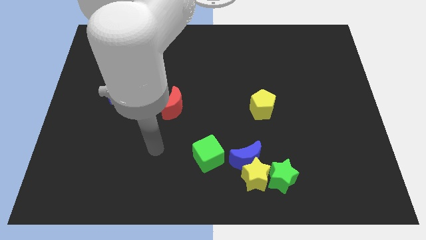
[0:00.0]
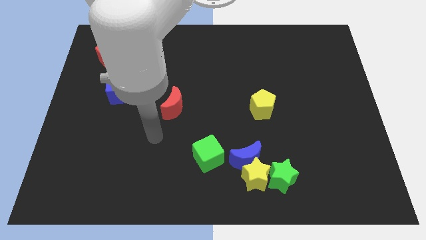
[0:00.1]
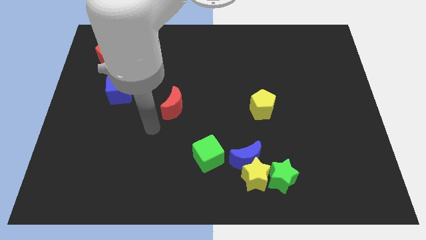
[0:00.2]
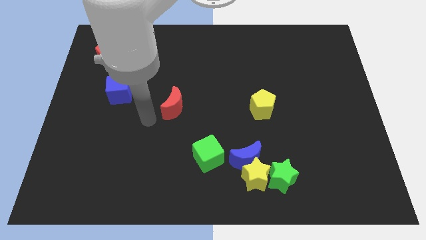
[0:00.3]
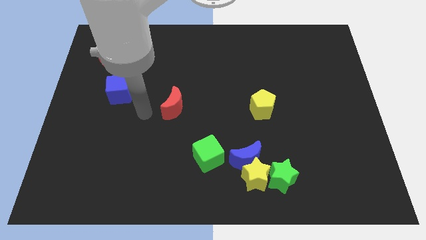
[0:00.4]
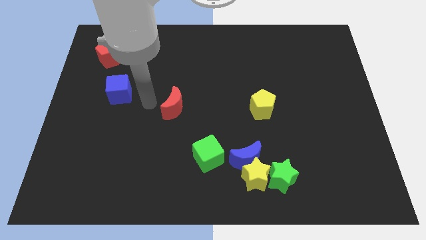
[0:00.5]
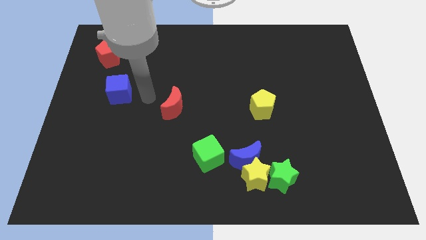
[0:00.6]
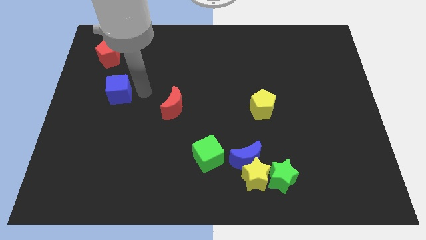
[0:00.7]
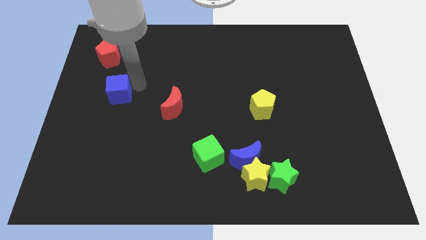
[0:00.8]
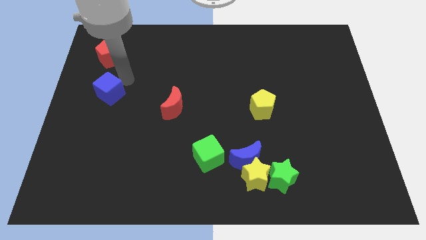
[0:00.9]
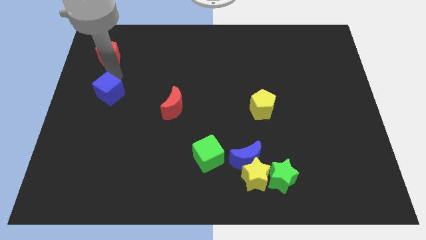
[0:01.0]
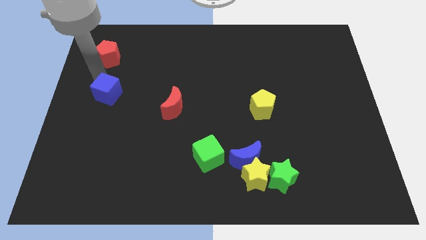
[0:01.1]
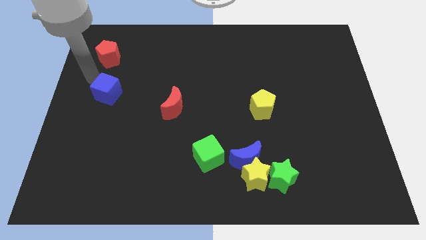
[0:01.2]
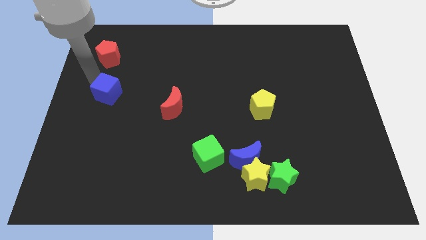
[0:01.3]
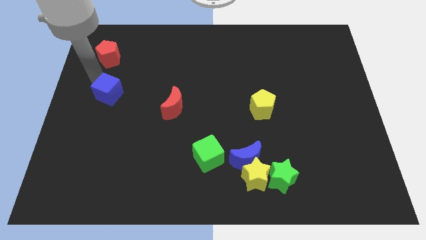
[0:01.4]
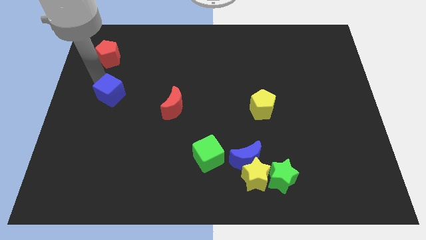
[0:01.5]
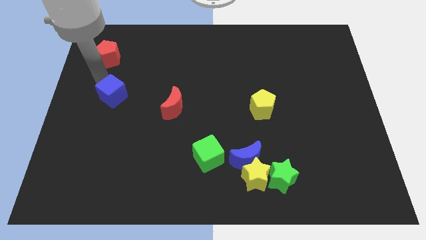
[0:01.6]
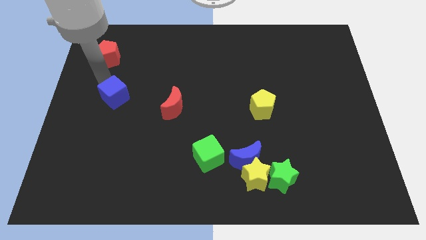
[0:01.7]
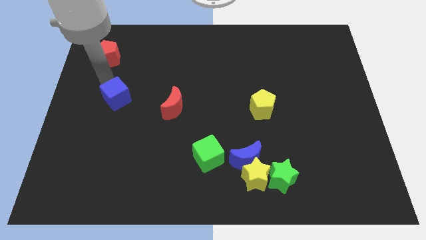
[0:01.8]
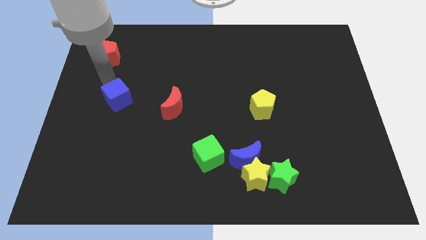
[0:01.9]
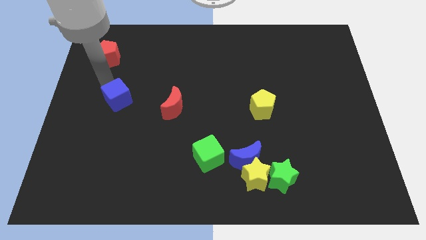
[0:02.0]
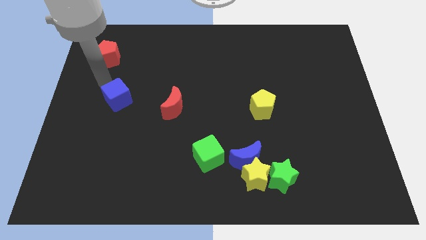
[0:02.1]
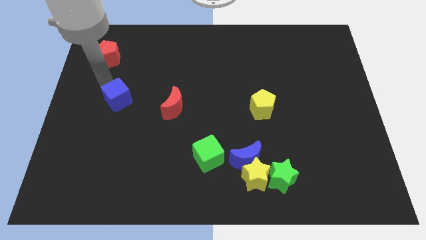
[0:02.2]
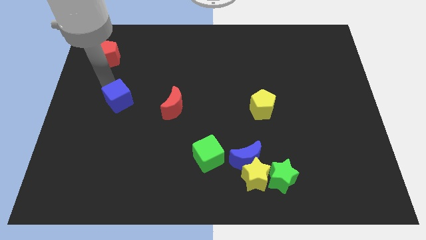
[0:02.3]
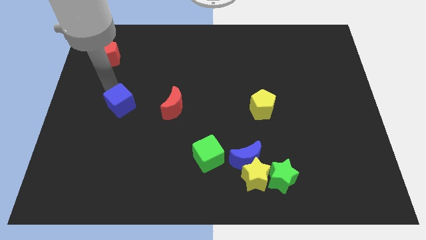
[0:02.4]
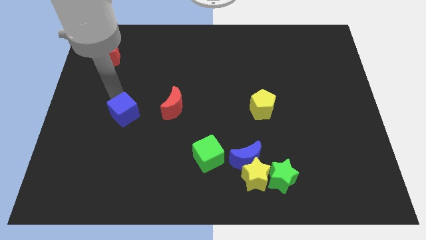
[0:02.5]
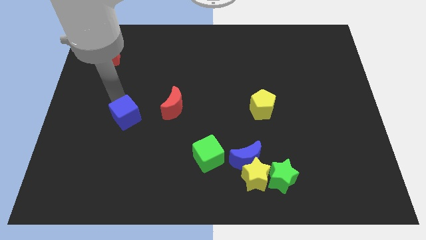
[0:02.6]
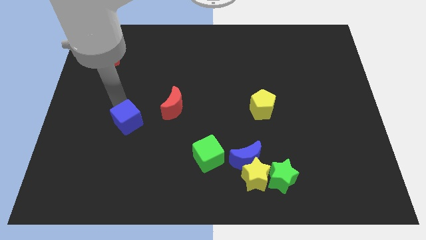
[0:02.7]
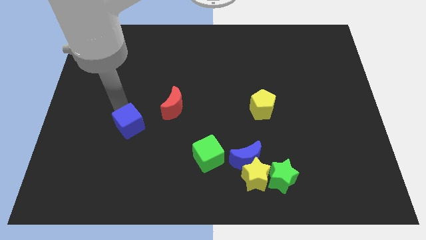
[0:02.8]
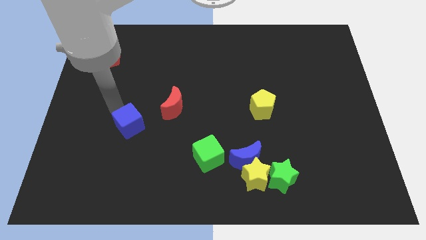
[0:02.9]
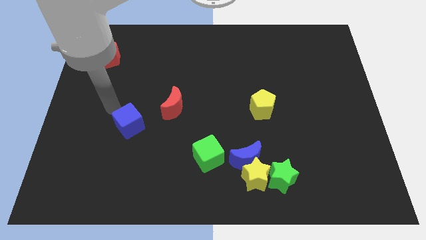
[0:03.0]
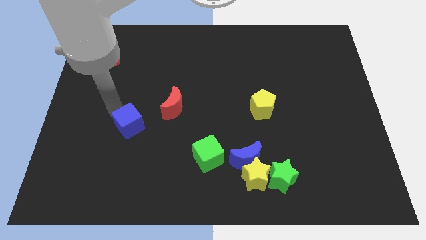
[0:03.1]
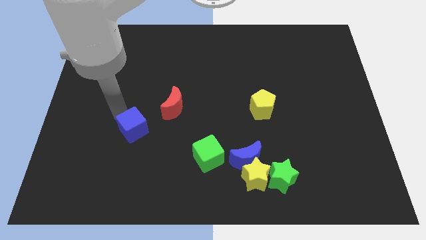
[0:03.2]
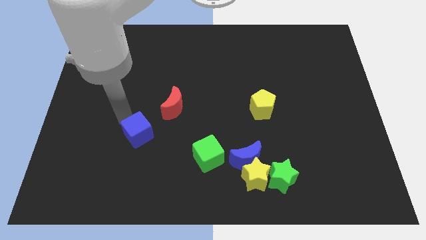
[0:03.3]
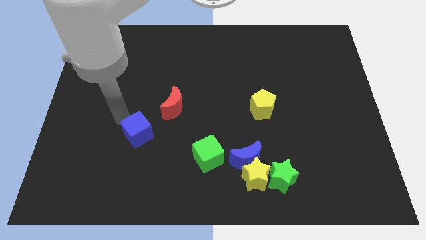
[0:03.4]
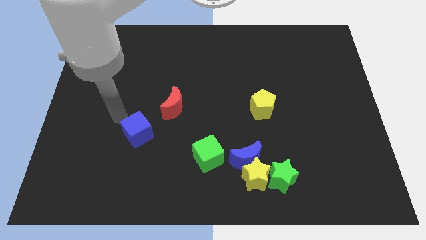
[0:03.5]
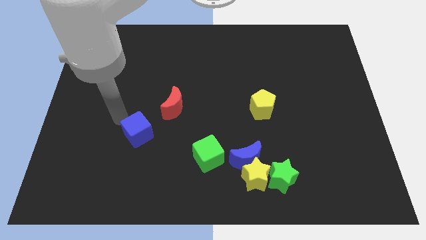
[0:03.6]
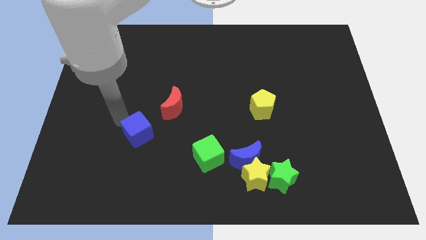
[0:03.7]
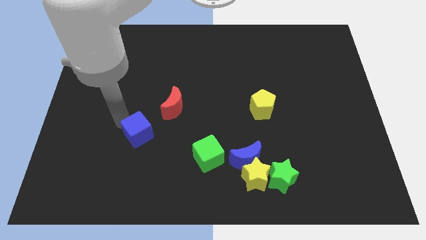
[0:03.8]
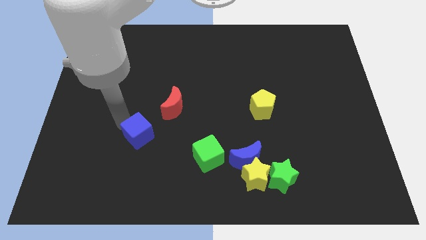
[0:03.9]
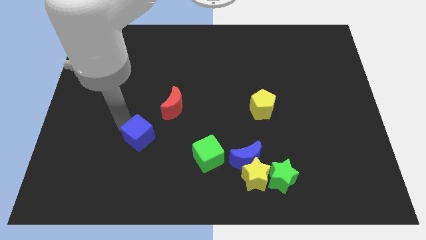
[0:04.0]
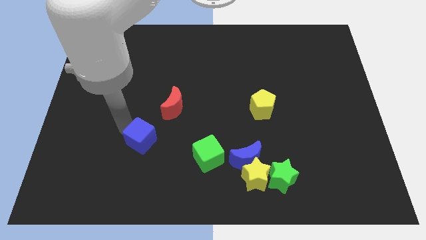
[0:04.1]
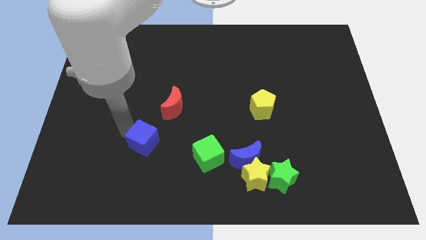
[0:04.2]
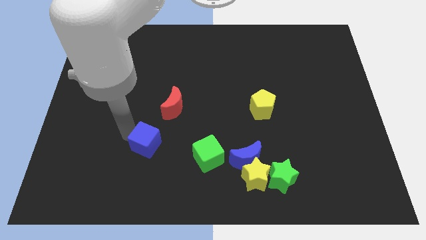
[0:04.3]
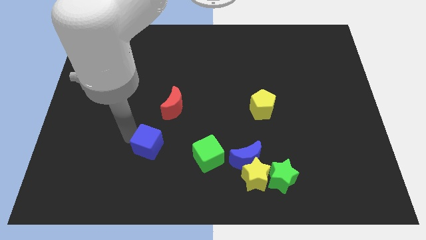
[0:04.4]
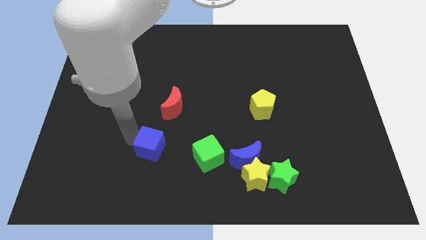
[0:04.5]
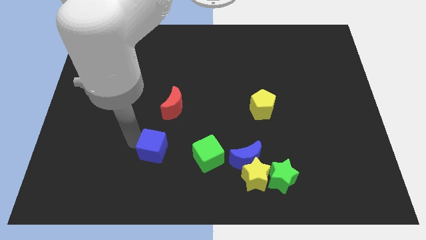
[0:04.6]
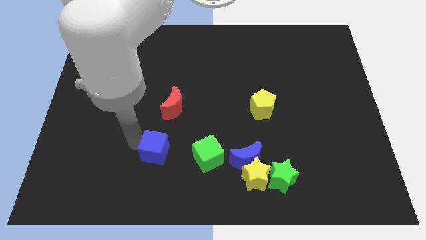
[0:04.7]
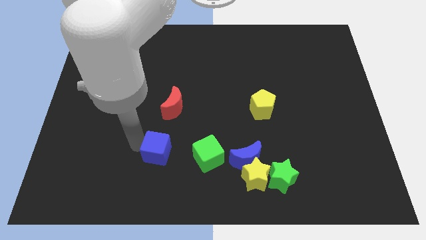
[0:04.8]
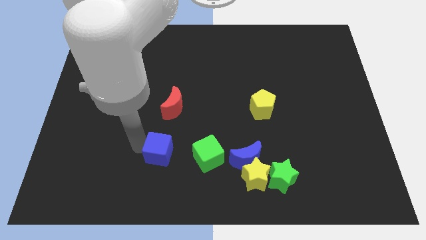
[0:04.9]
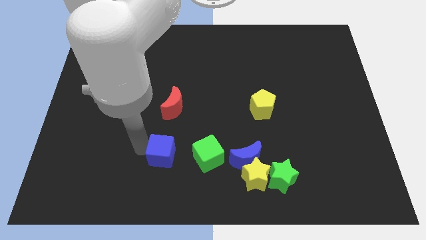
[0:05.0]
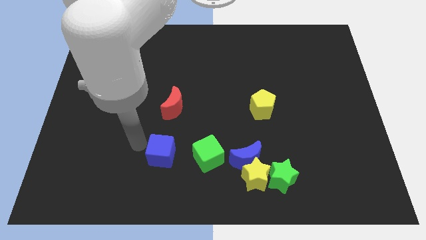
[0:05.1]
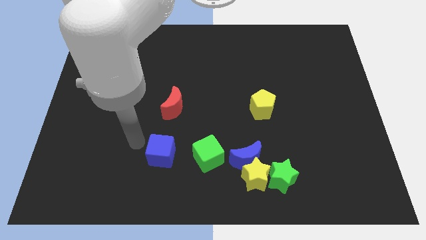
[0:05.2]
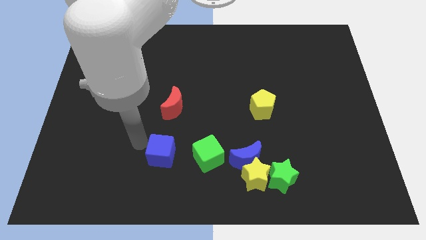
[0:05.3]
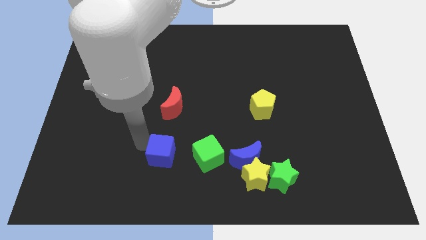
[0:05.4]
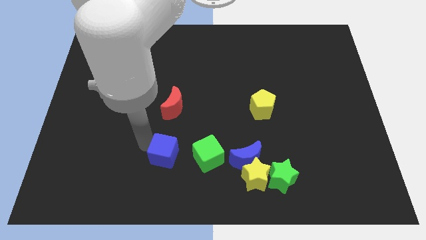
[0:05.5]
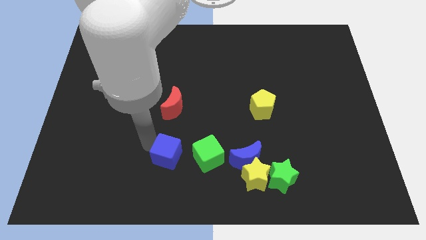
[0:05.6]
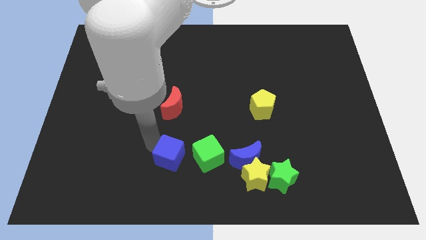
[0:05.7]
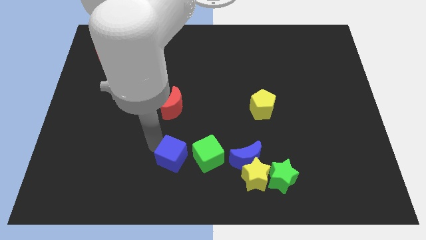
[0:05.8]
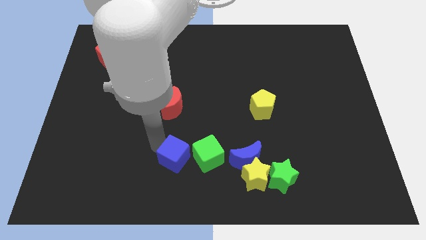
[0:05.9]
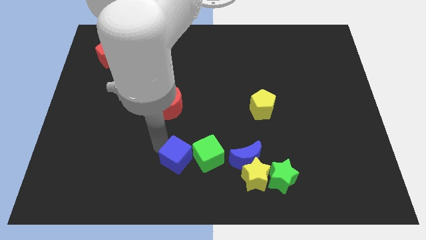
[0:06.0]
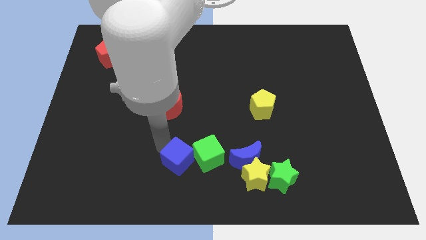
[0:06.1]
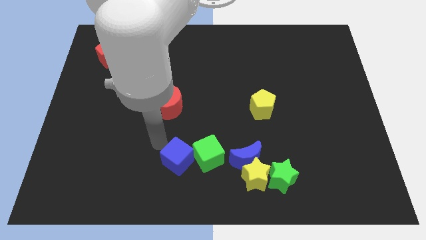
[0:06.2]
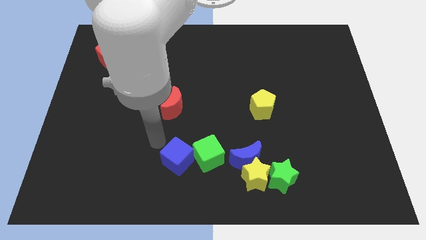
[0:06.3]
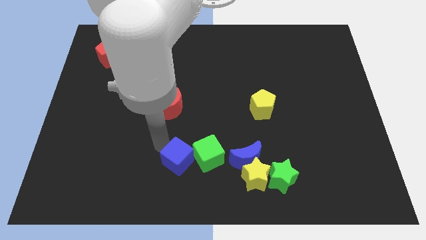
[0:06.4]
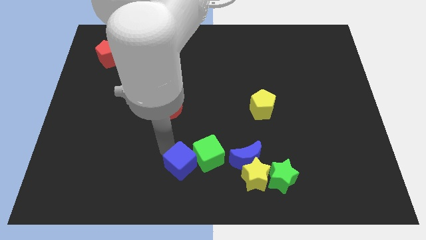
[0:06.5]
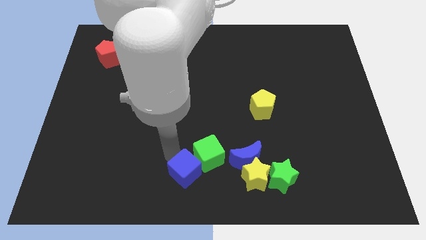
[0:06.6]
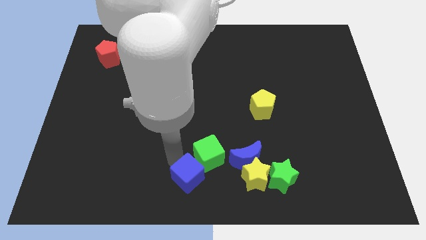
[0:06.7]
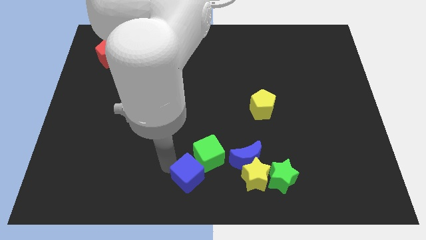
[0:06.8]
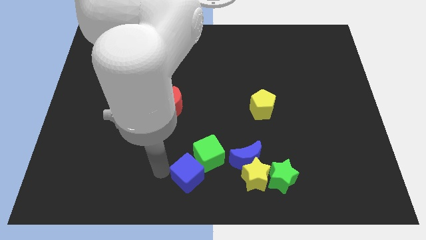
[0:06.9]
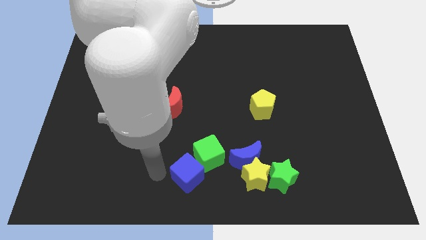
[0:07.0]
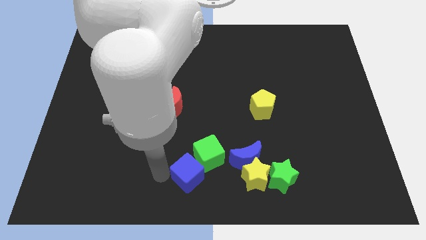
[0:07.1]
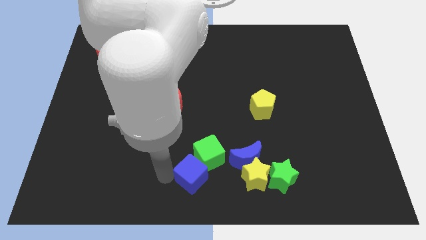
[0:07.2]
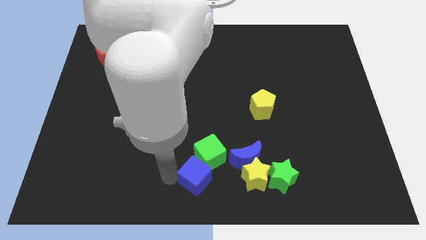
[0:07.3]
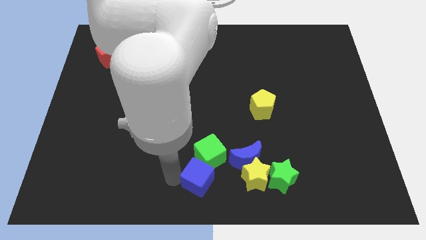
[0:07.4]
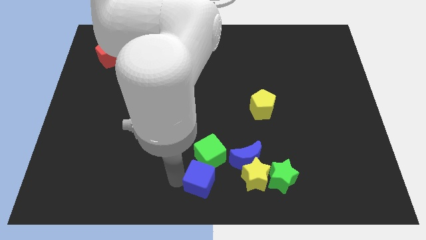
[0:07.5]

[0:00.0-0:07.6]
slide the blue cube to the left side of the green star

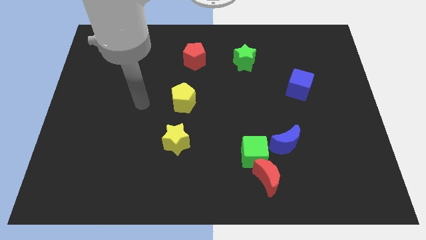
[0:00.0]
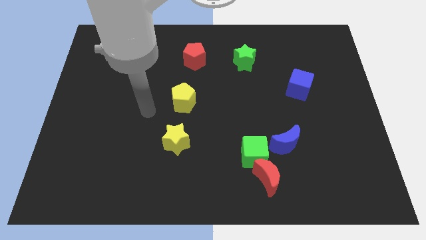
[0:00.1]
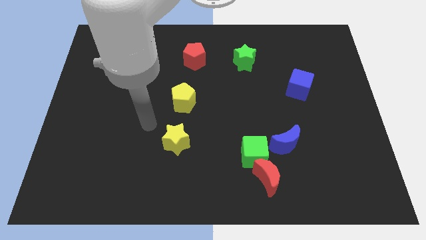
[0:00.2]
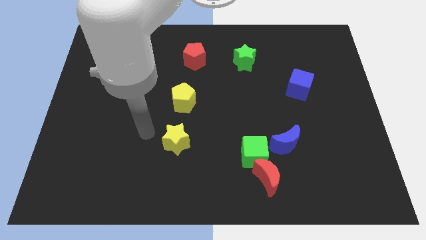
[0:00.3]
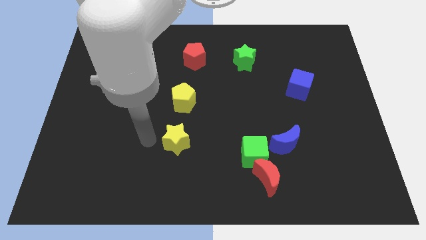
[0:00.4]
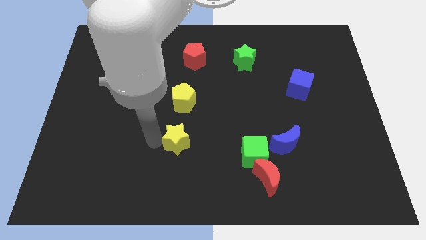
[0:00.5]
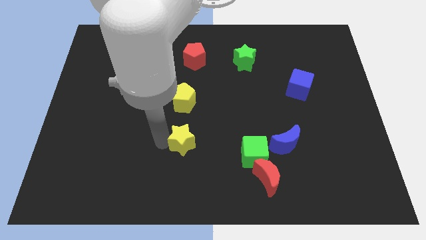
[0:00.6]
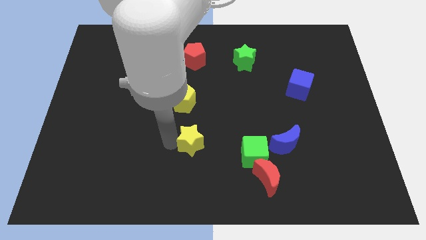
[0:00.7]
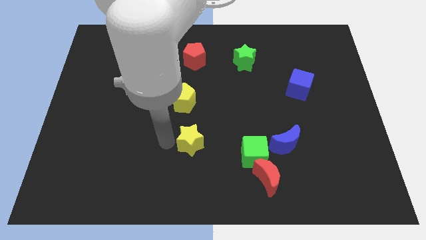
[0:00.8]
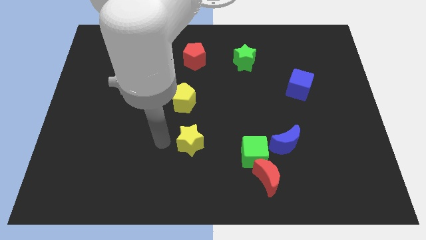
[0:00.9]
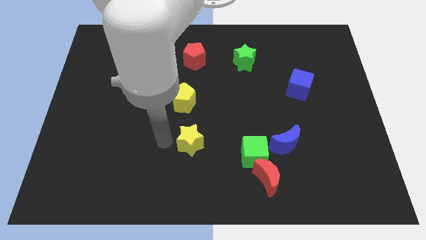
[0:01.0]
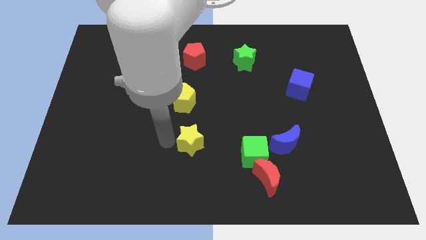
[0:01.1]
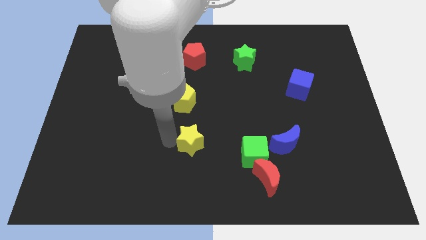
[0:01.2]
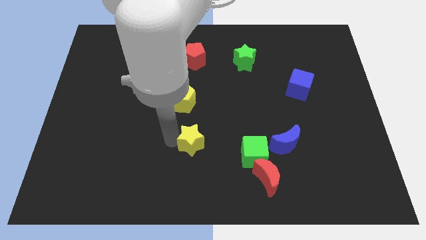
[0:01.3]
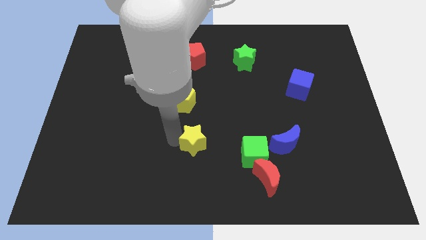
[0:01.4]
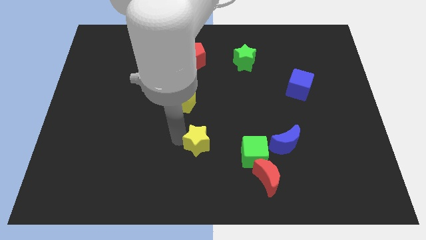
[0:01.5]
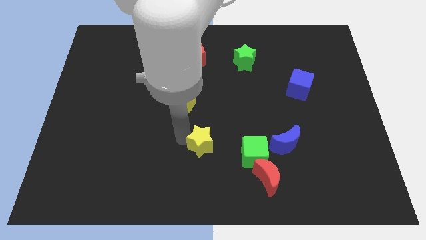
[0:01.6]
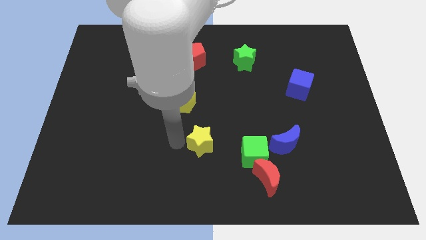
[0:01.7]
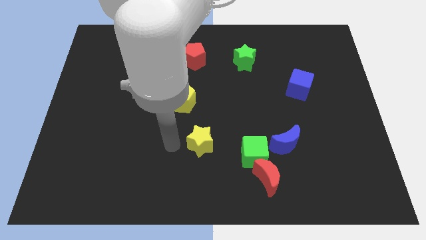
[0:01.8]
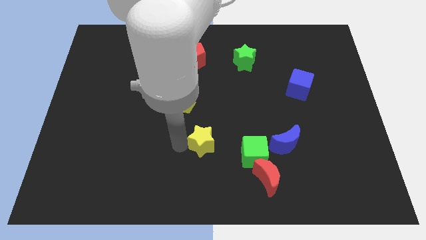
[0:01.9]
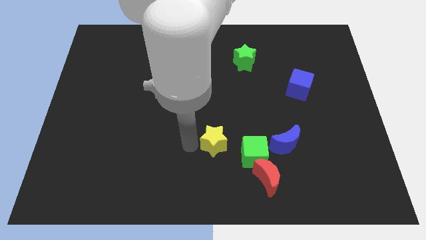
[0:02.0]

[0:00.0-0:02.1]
slide the yellow star left of the blue moon
